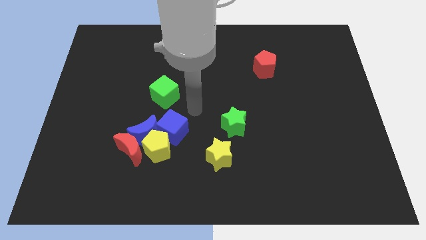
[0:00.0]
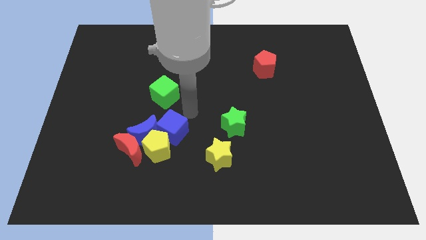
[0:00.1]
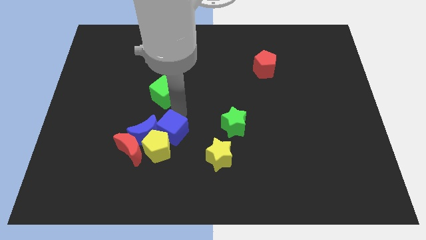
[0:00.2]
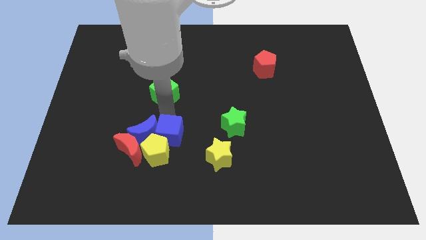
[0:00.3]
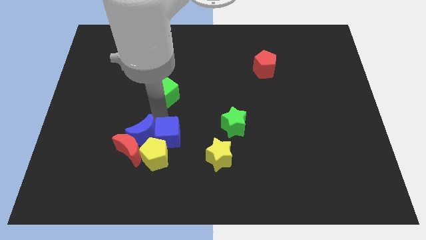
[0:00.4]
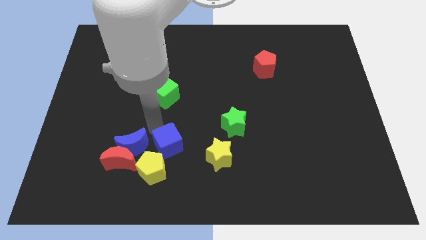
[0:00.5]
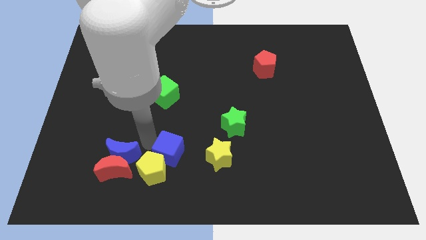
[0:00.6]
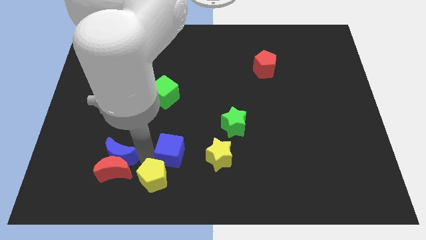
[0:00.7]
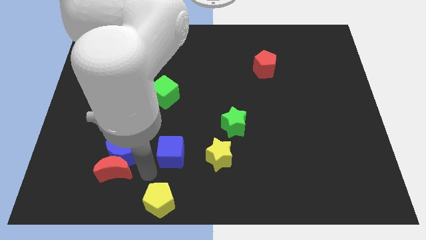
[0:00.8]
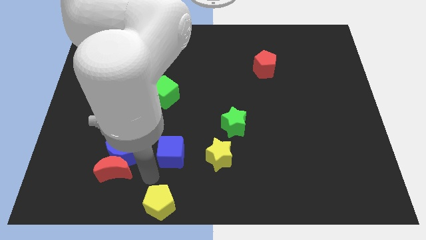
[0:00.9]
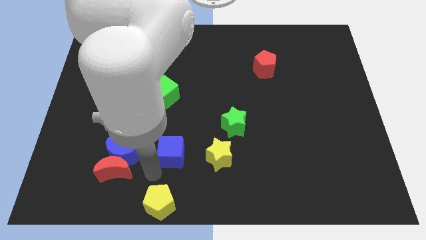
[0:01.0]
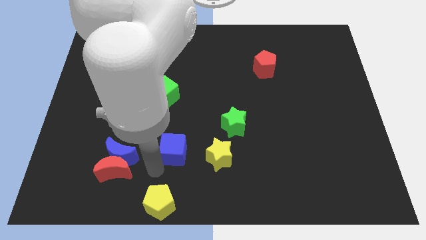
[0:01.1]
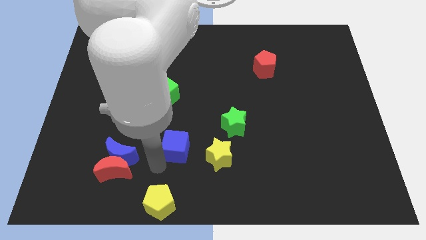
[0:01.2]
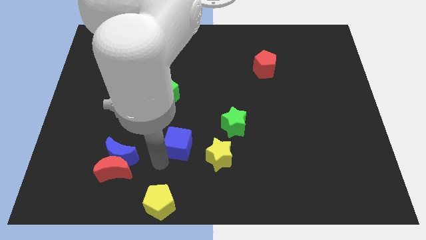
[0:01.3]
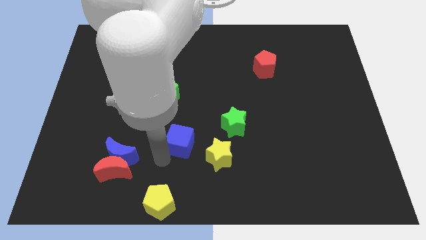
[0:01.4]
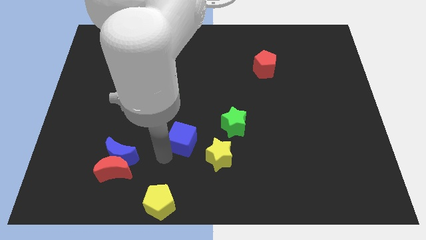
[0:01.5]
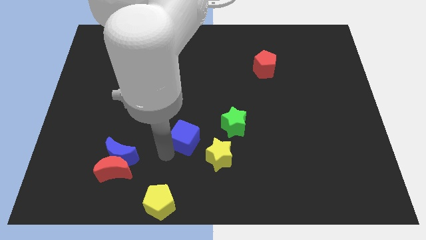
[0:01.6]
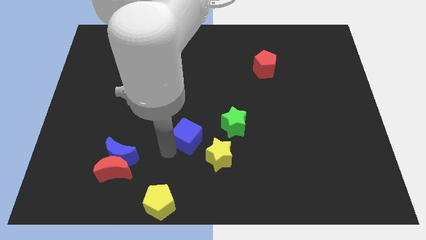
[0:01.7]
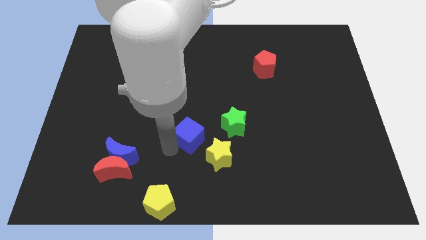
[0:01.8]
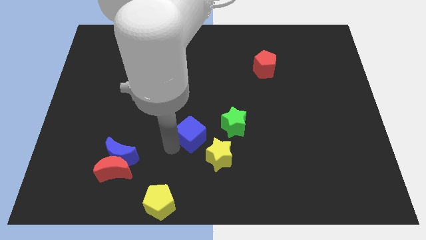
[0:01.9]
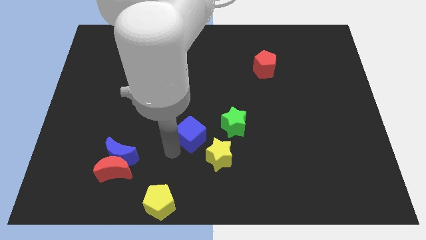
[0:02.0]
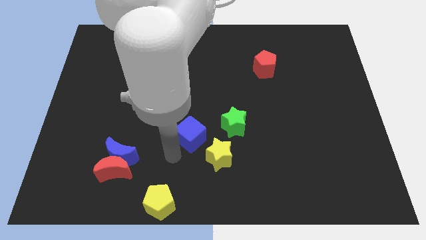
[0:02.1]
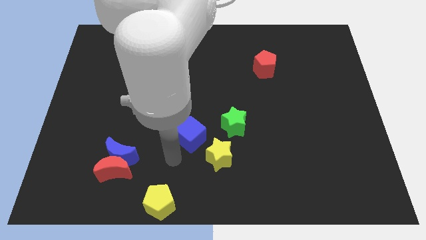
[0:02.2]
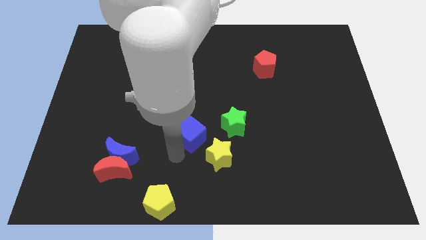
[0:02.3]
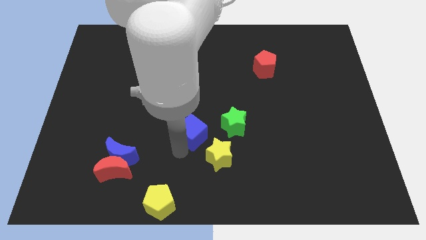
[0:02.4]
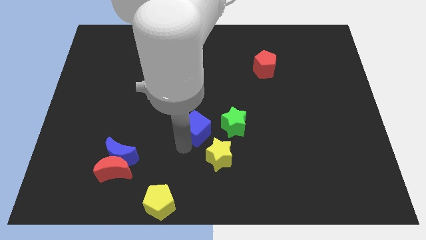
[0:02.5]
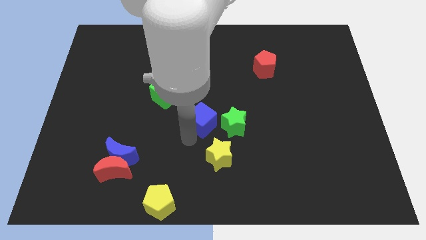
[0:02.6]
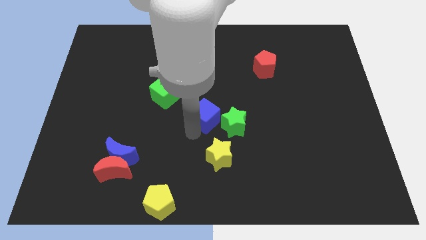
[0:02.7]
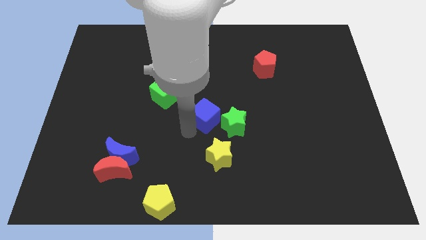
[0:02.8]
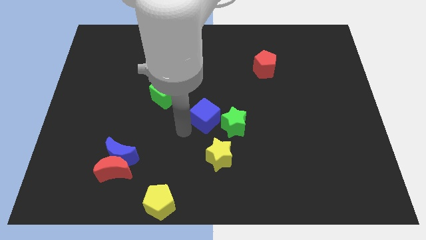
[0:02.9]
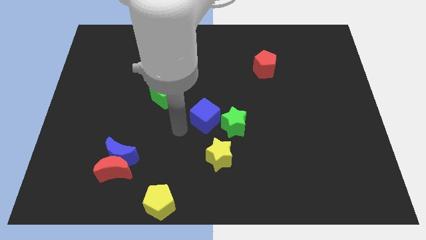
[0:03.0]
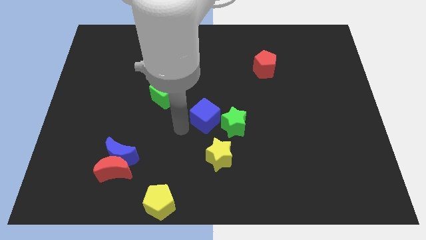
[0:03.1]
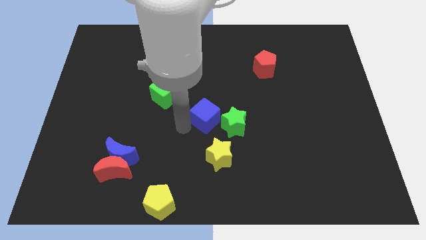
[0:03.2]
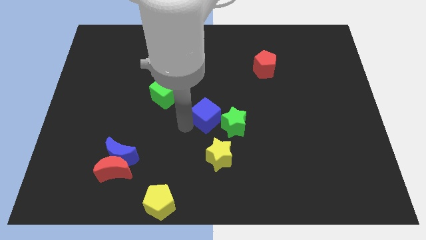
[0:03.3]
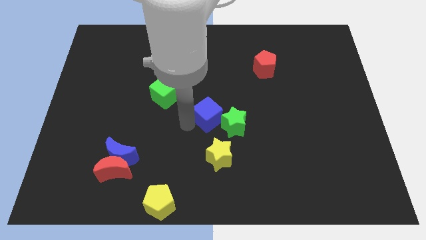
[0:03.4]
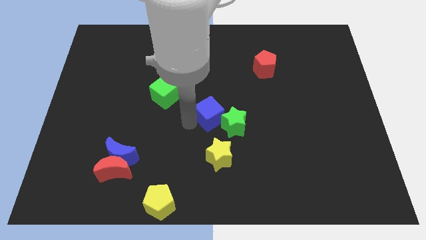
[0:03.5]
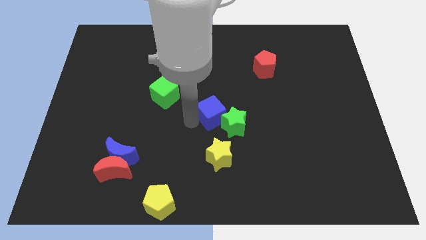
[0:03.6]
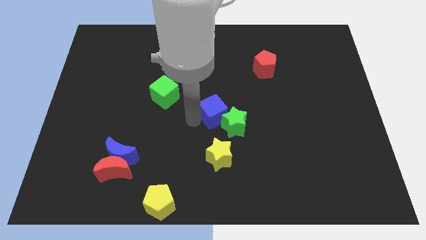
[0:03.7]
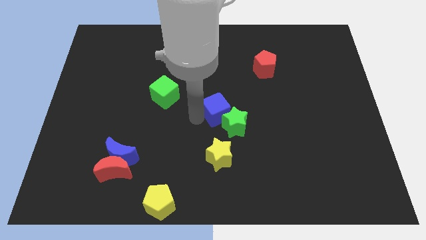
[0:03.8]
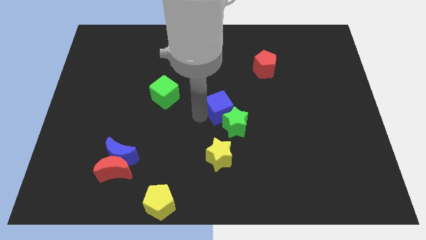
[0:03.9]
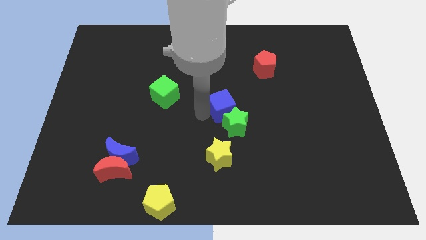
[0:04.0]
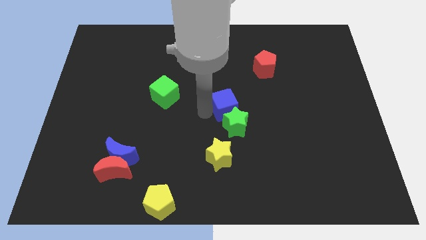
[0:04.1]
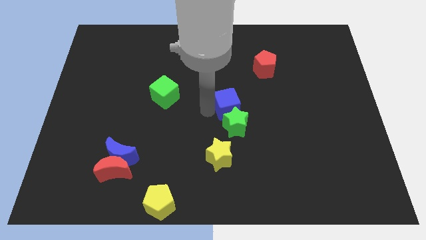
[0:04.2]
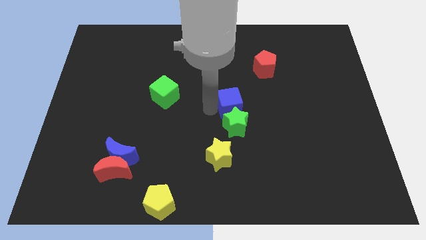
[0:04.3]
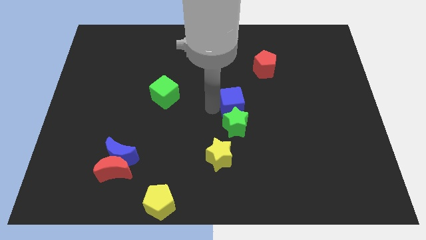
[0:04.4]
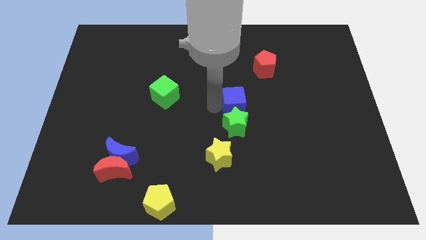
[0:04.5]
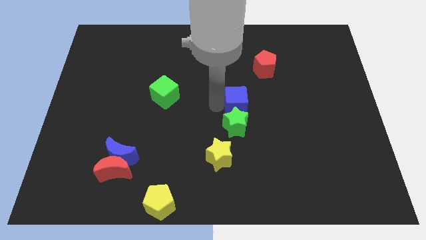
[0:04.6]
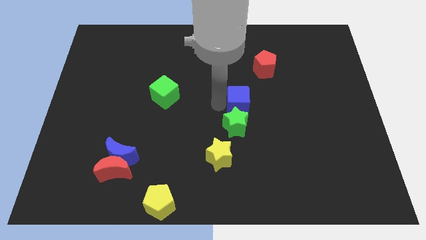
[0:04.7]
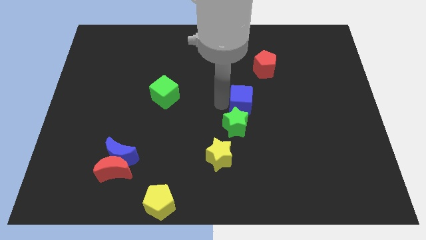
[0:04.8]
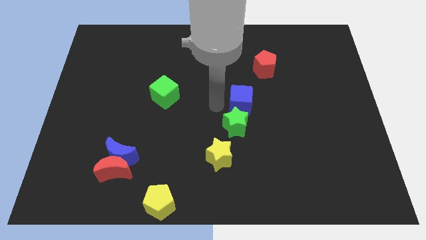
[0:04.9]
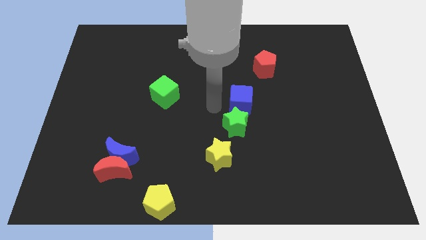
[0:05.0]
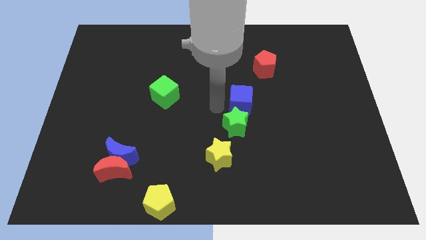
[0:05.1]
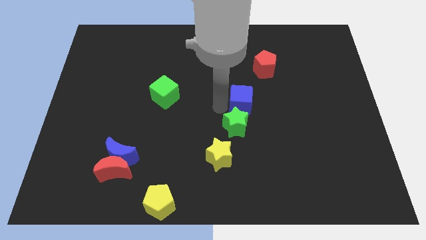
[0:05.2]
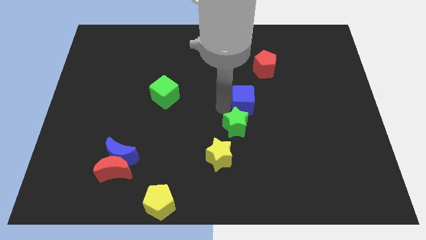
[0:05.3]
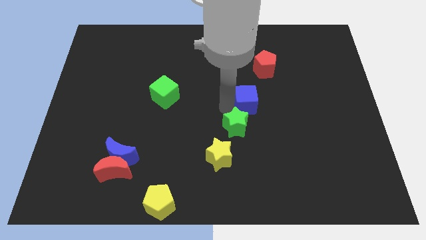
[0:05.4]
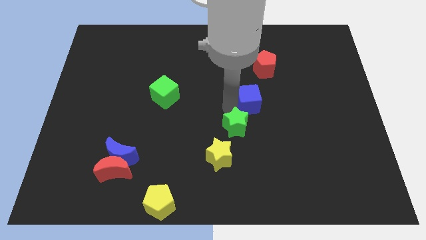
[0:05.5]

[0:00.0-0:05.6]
put the blue cube to the bottom side of the red pentagon

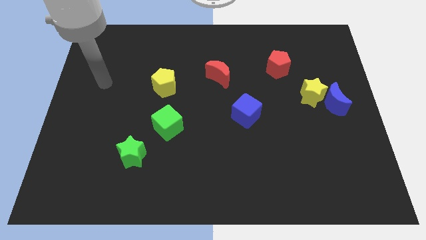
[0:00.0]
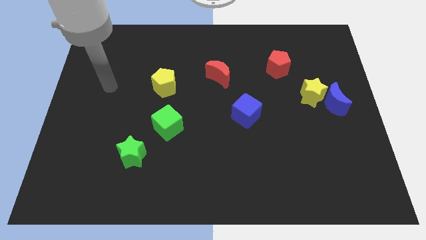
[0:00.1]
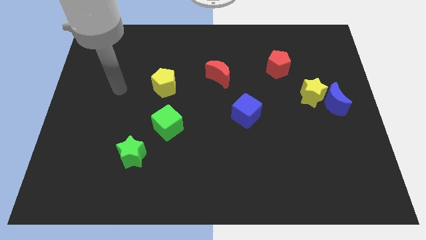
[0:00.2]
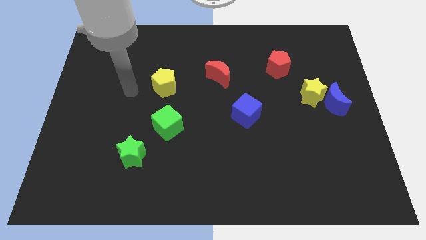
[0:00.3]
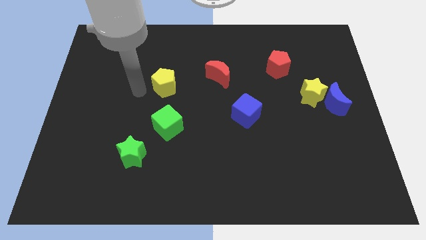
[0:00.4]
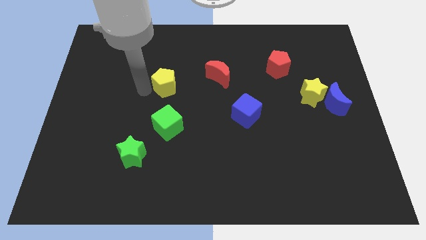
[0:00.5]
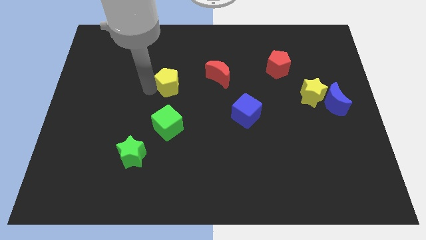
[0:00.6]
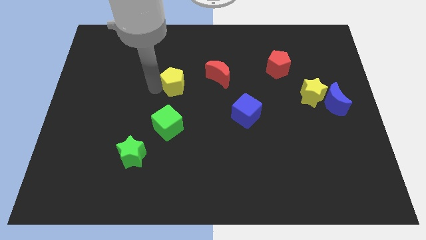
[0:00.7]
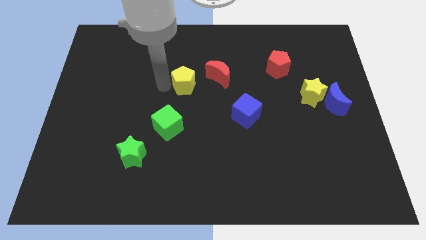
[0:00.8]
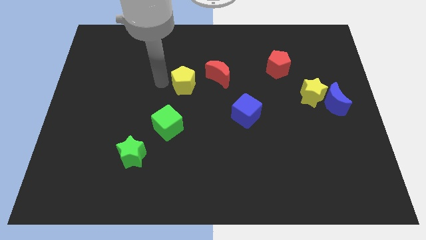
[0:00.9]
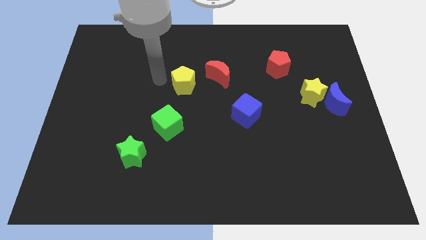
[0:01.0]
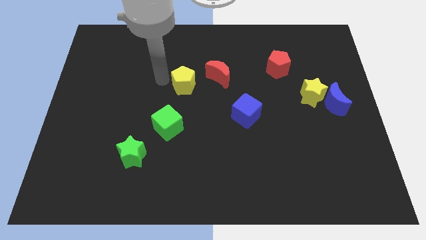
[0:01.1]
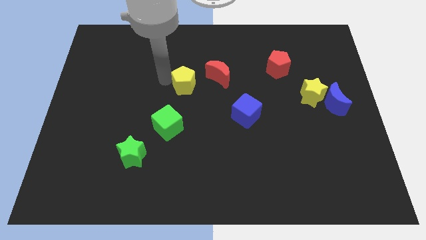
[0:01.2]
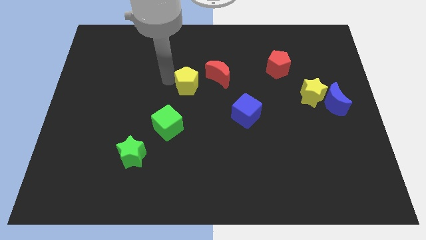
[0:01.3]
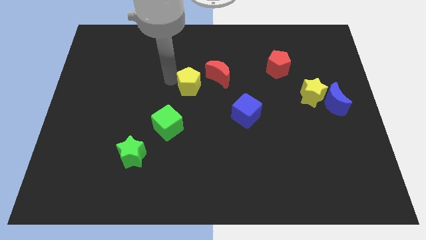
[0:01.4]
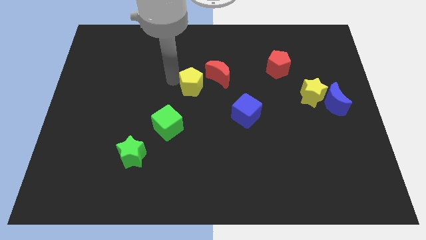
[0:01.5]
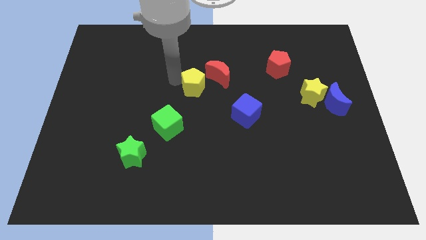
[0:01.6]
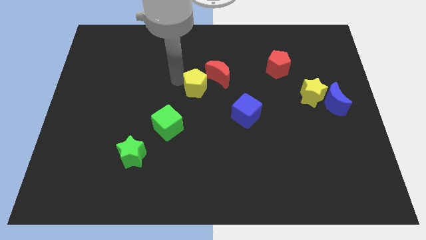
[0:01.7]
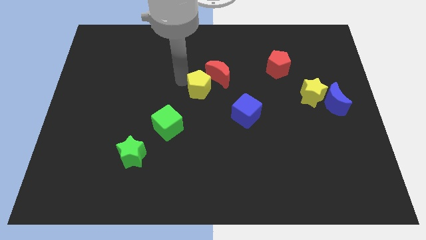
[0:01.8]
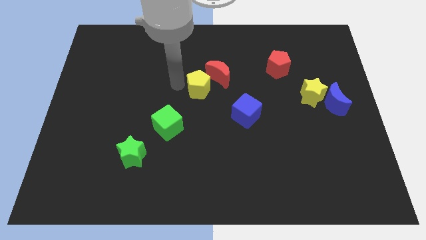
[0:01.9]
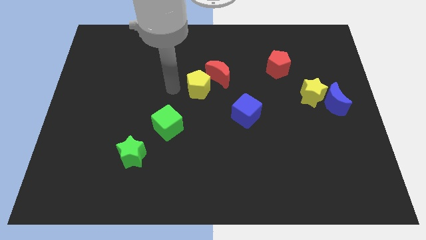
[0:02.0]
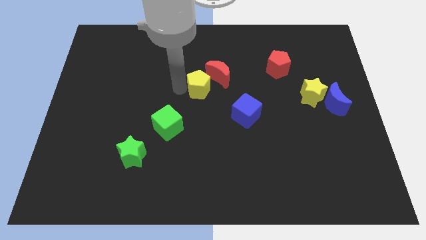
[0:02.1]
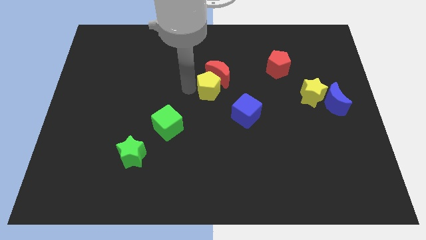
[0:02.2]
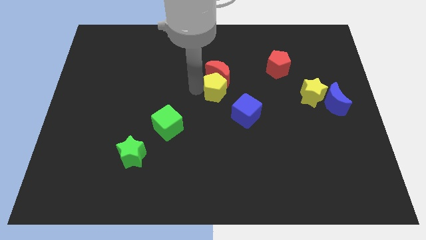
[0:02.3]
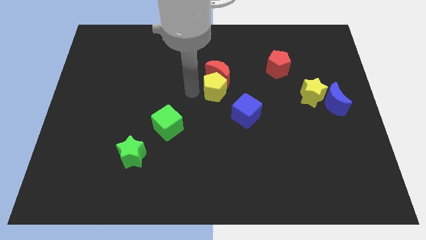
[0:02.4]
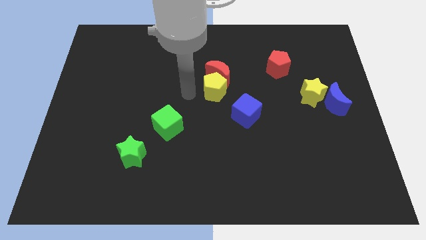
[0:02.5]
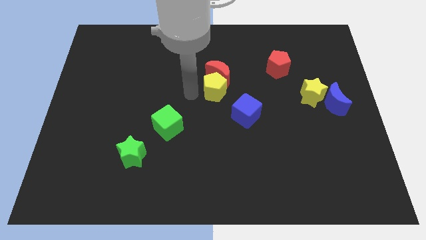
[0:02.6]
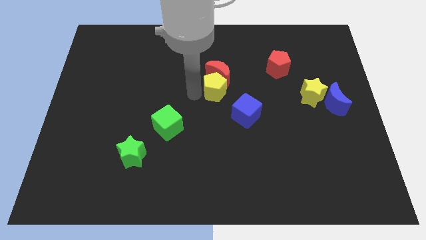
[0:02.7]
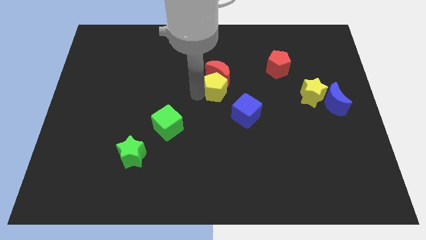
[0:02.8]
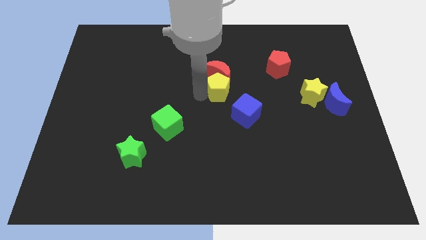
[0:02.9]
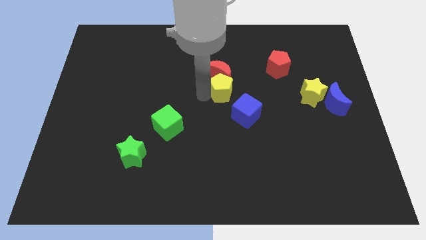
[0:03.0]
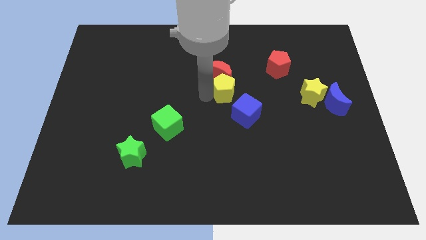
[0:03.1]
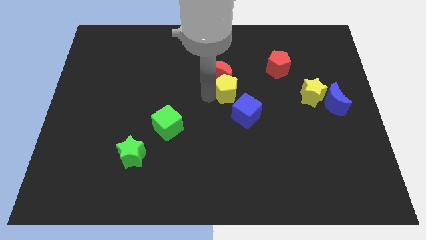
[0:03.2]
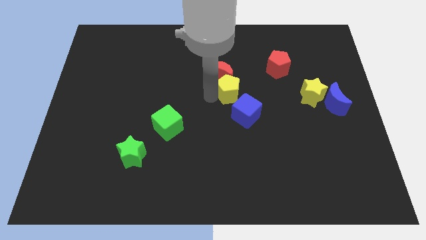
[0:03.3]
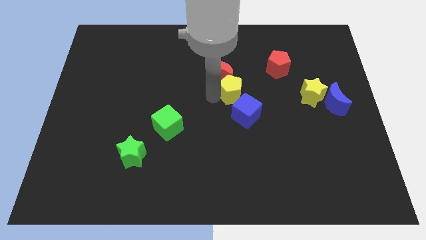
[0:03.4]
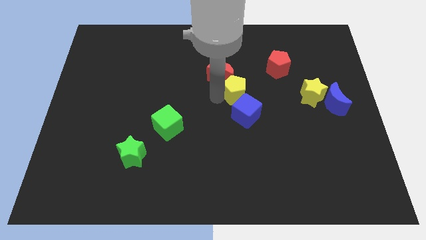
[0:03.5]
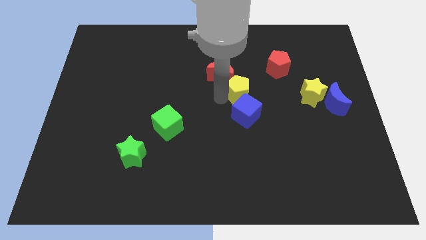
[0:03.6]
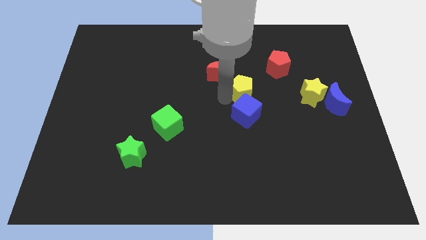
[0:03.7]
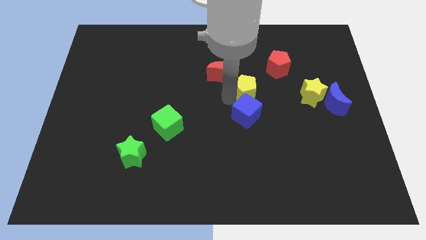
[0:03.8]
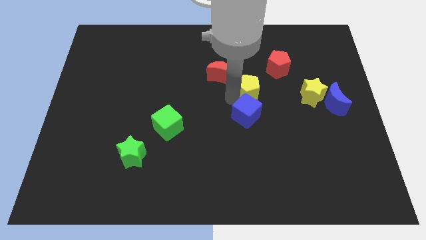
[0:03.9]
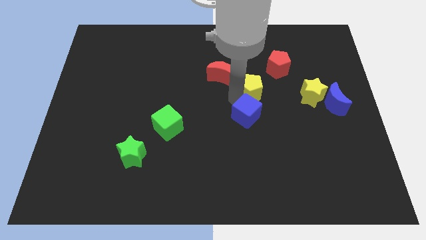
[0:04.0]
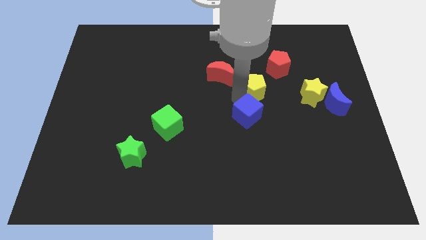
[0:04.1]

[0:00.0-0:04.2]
move the yellow pentagon just right of the red moon
